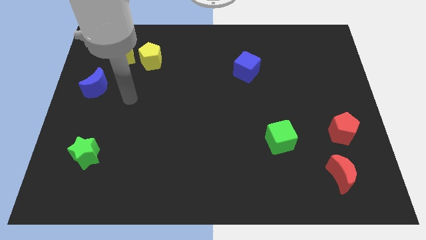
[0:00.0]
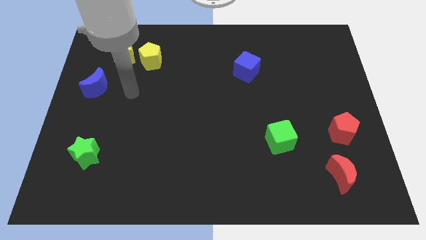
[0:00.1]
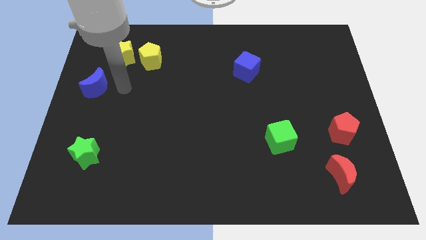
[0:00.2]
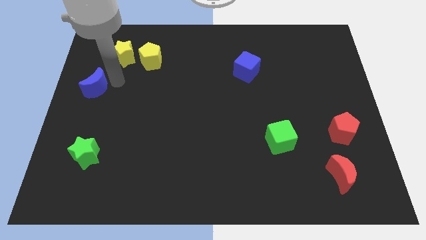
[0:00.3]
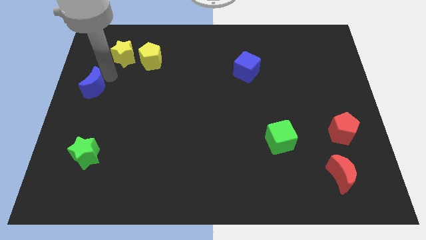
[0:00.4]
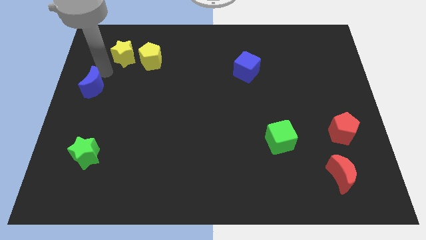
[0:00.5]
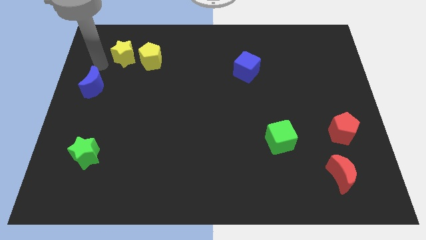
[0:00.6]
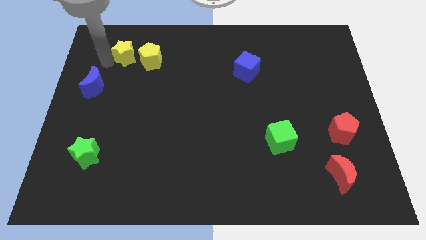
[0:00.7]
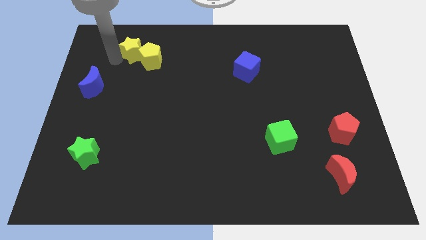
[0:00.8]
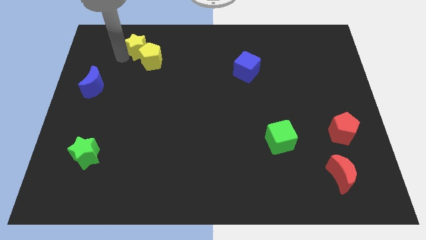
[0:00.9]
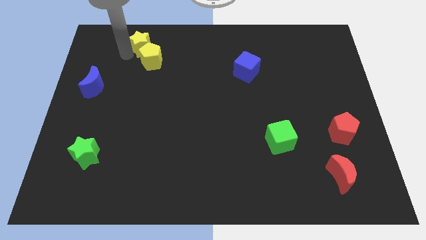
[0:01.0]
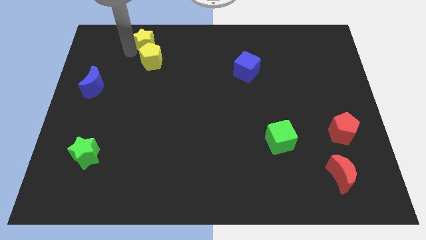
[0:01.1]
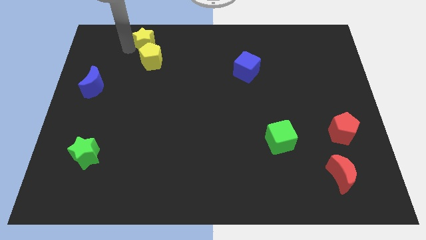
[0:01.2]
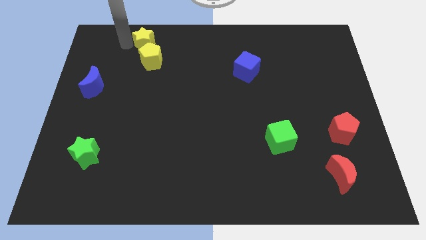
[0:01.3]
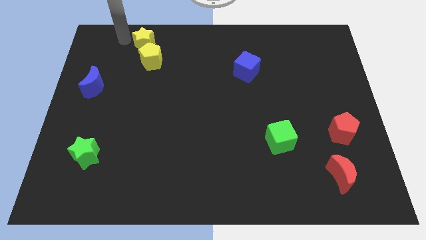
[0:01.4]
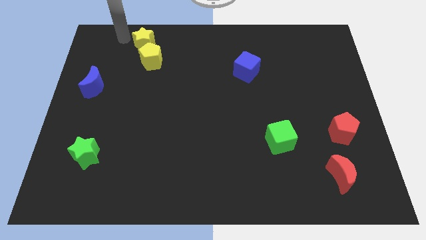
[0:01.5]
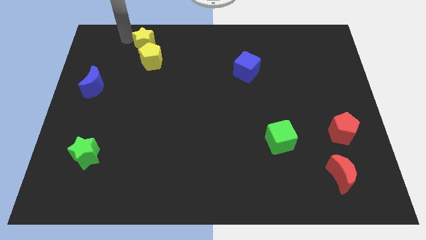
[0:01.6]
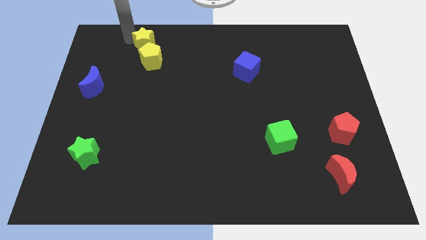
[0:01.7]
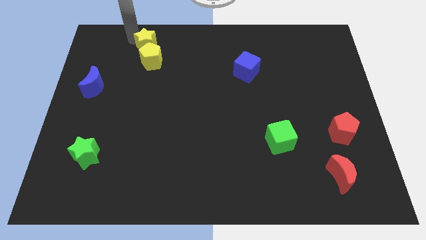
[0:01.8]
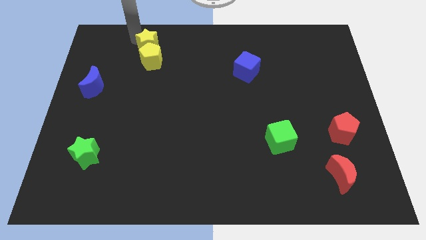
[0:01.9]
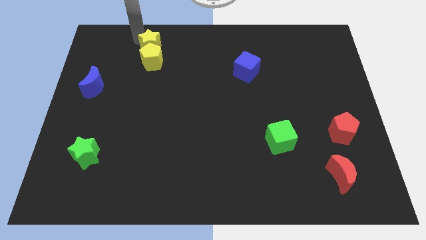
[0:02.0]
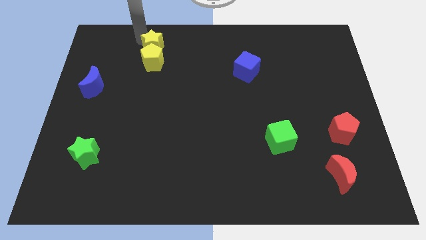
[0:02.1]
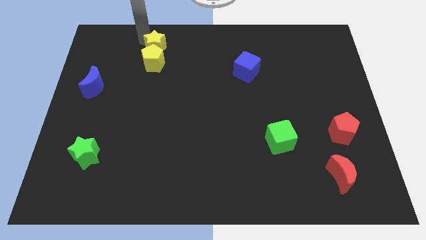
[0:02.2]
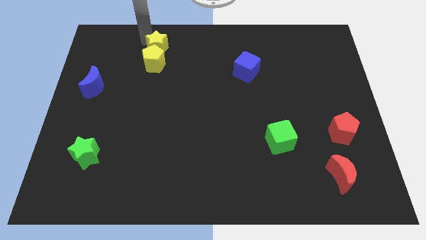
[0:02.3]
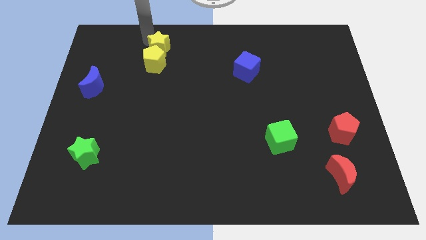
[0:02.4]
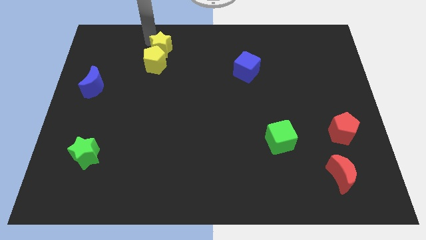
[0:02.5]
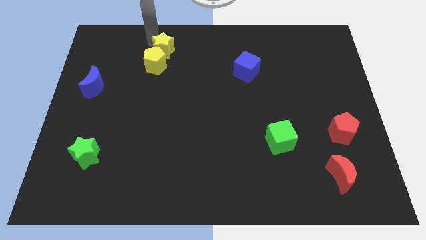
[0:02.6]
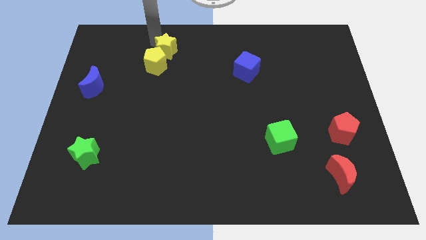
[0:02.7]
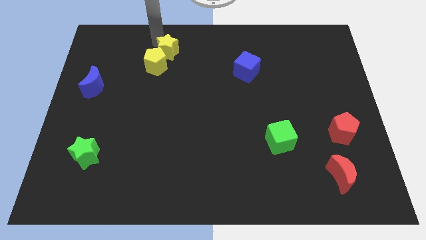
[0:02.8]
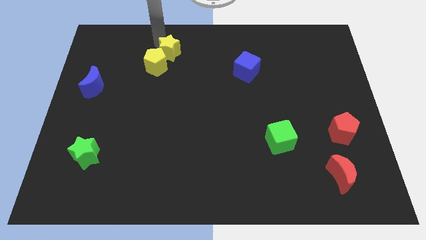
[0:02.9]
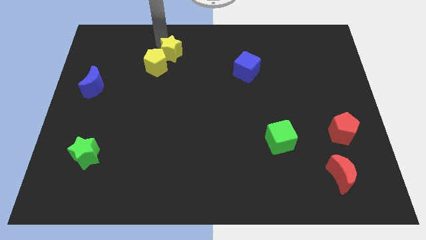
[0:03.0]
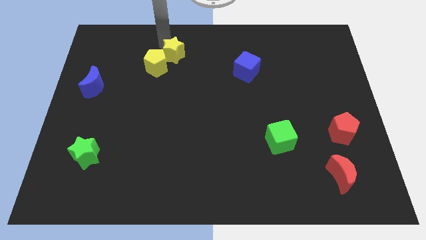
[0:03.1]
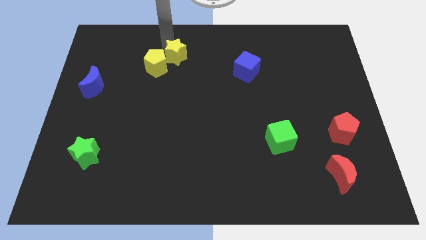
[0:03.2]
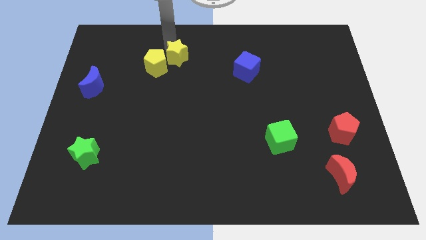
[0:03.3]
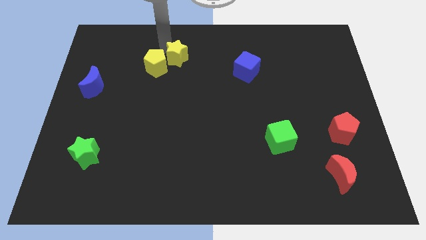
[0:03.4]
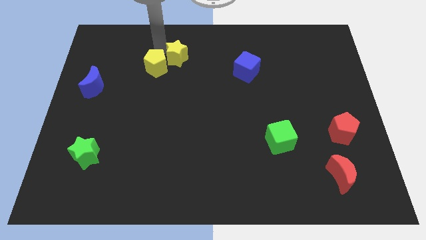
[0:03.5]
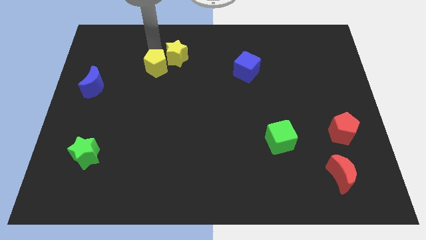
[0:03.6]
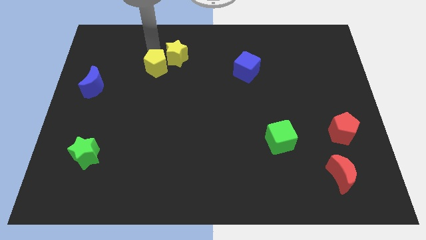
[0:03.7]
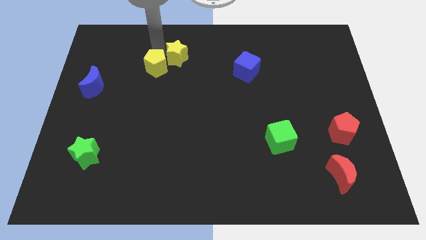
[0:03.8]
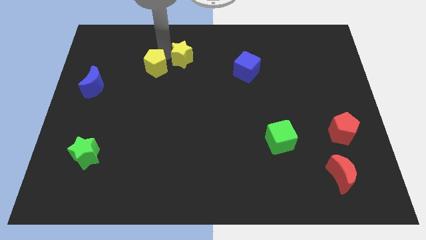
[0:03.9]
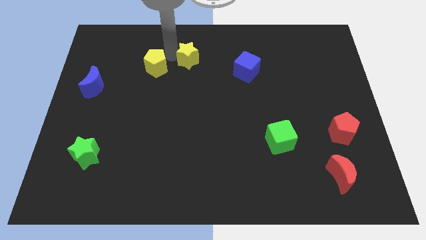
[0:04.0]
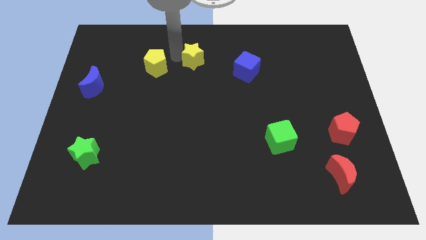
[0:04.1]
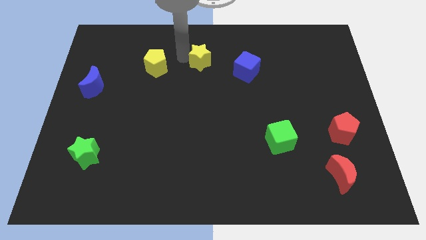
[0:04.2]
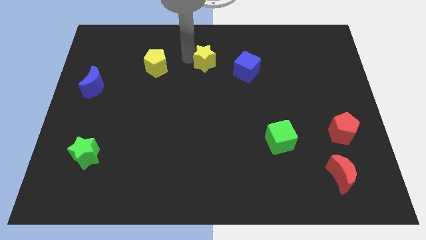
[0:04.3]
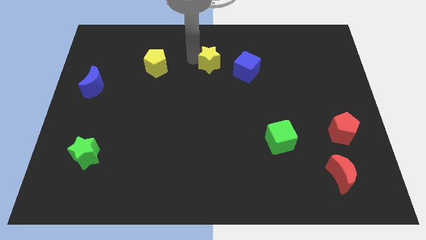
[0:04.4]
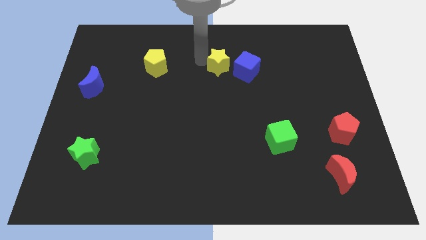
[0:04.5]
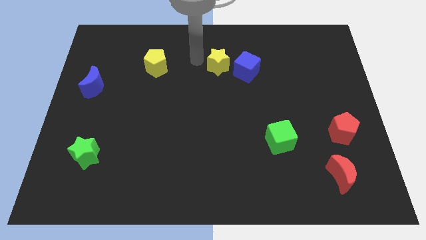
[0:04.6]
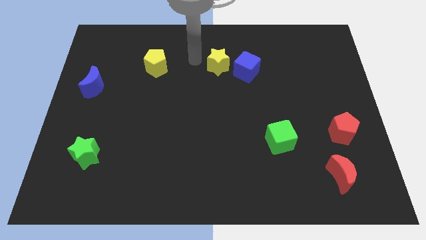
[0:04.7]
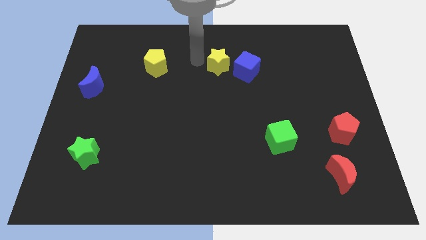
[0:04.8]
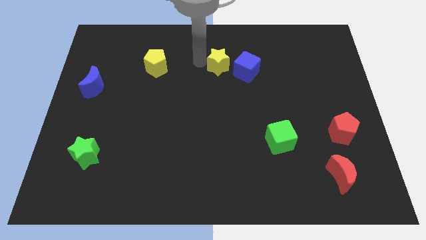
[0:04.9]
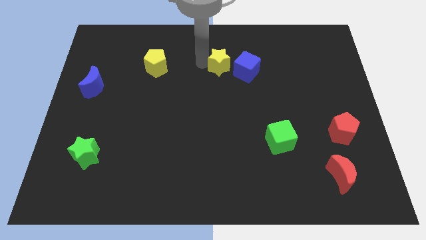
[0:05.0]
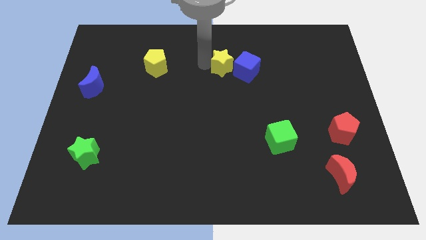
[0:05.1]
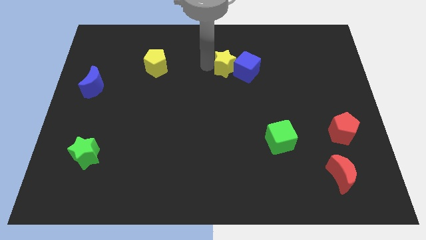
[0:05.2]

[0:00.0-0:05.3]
slide the yellow star next to the blue cube

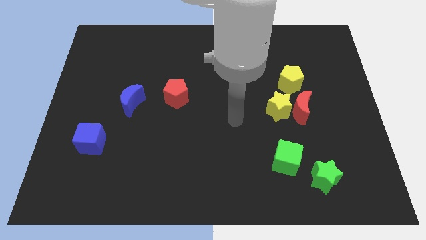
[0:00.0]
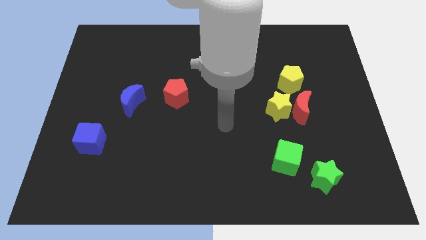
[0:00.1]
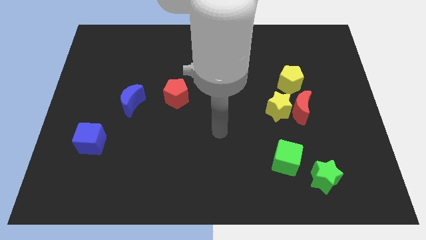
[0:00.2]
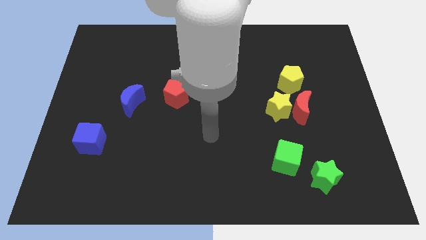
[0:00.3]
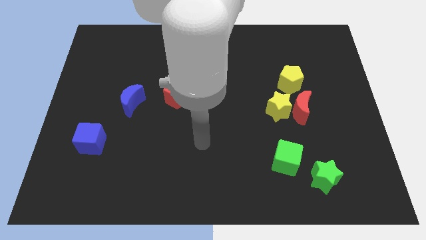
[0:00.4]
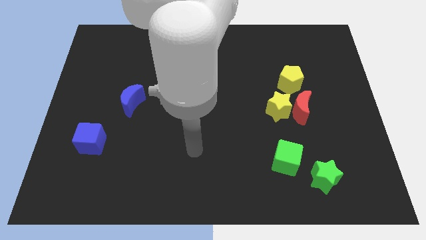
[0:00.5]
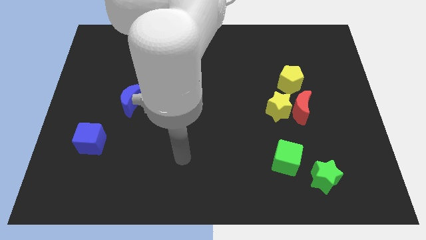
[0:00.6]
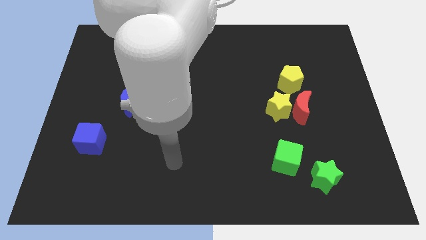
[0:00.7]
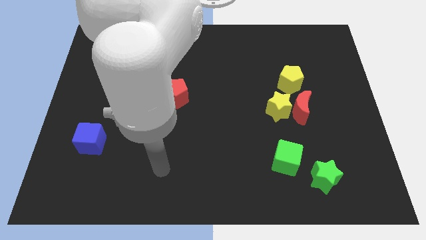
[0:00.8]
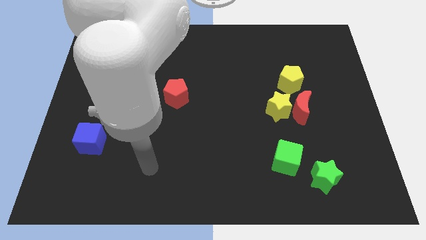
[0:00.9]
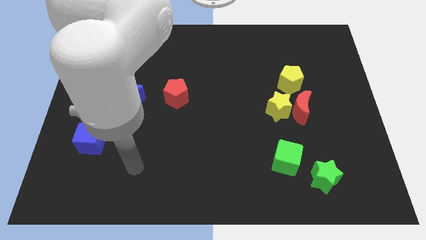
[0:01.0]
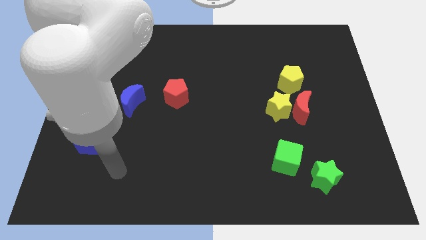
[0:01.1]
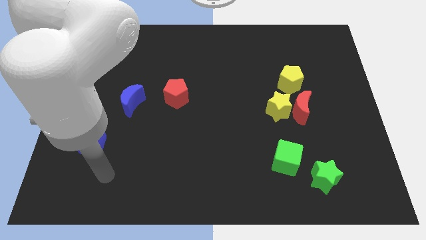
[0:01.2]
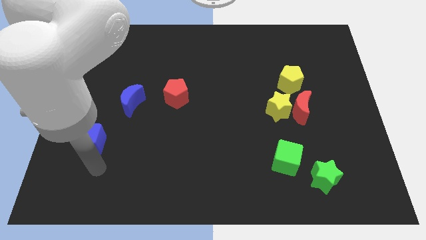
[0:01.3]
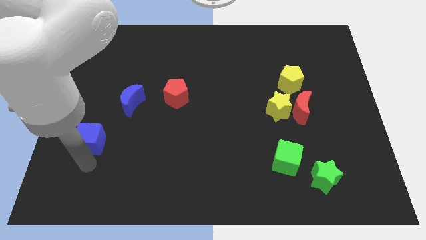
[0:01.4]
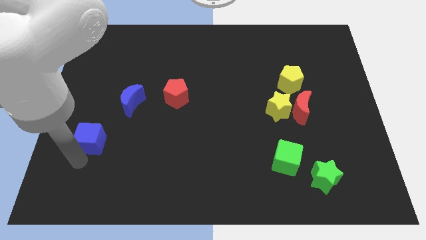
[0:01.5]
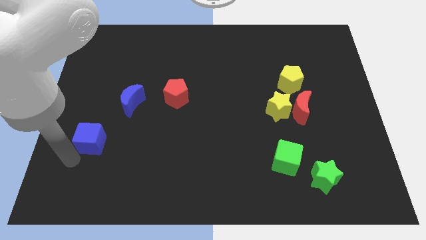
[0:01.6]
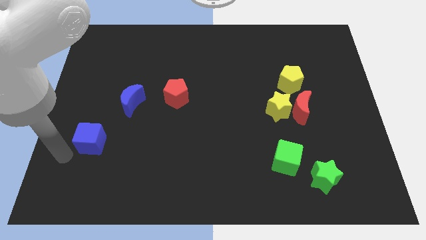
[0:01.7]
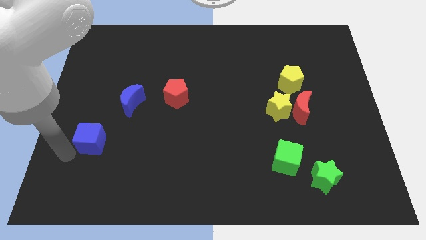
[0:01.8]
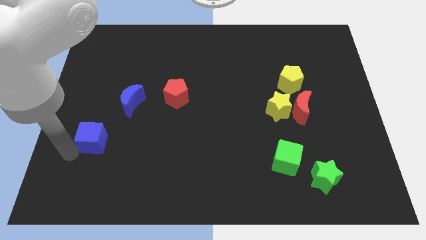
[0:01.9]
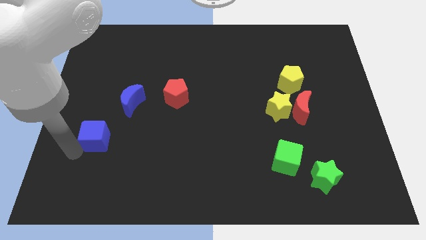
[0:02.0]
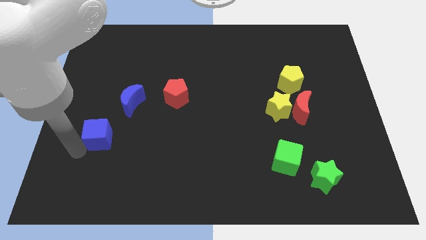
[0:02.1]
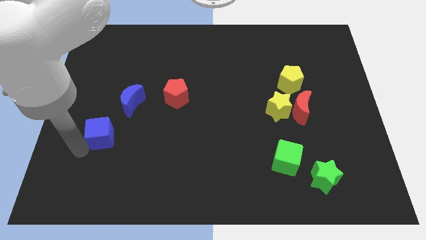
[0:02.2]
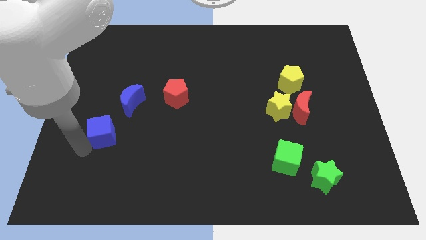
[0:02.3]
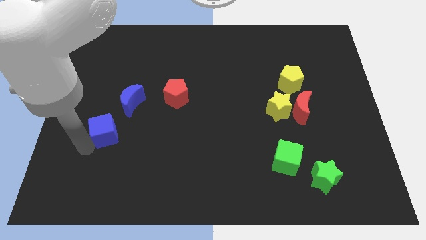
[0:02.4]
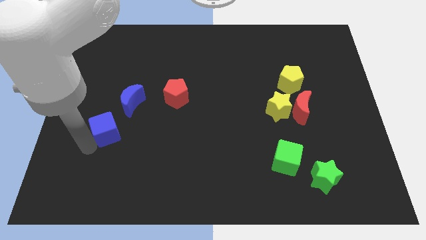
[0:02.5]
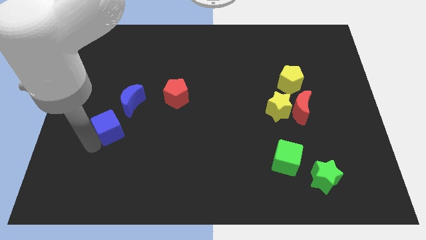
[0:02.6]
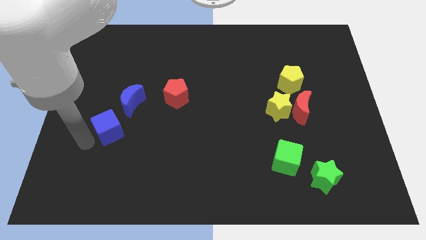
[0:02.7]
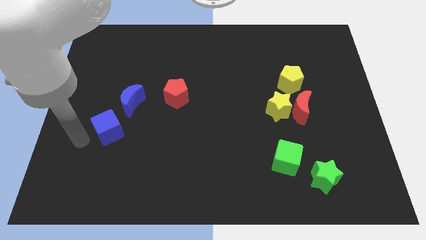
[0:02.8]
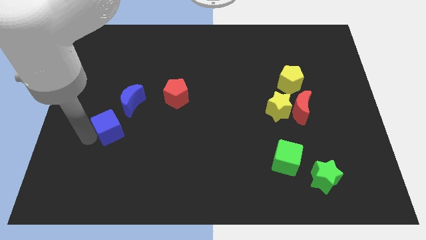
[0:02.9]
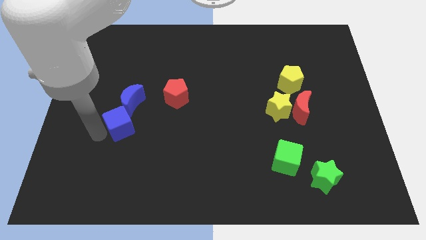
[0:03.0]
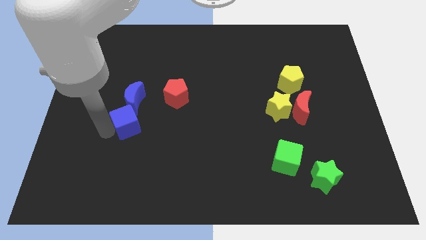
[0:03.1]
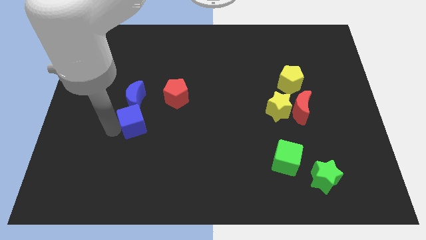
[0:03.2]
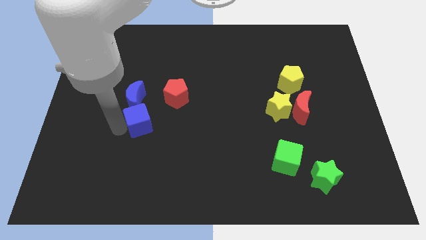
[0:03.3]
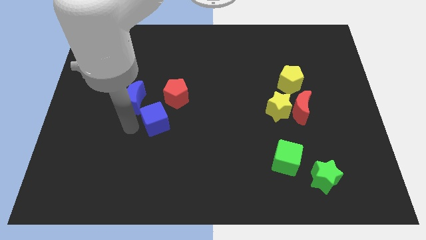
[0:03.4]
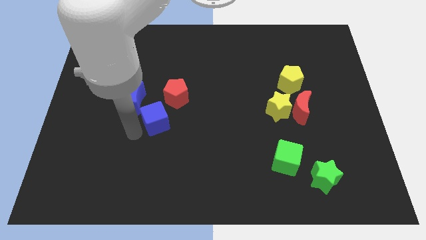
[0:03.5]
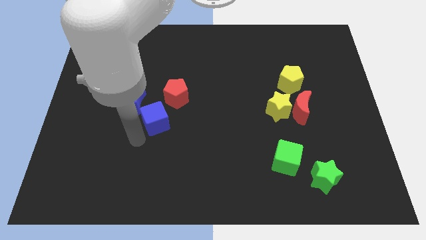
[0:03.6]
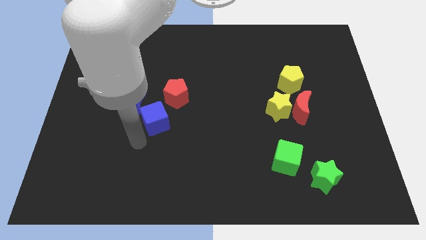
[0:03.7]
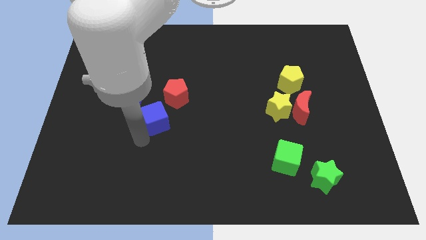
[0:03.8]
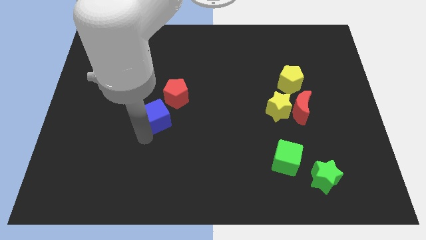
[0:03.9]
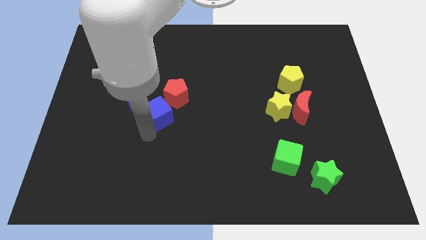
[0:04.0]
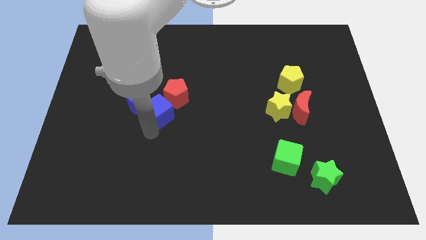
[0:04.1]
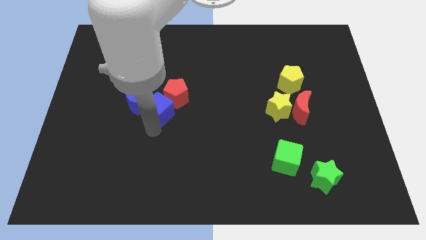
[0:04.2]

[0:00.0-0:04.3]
slide the blue cube close to the red pentagon
